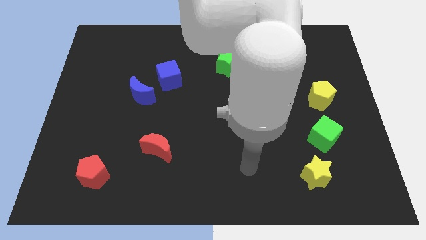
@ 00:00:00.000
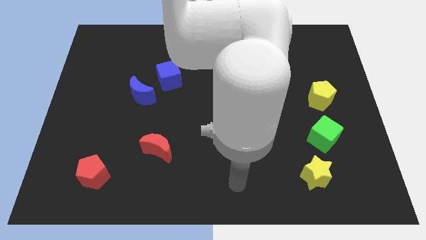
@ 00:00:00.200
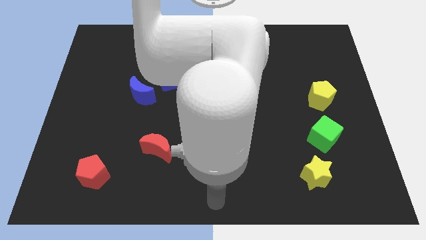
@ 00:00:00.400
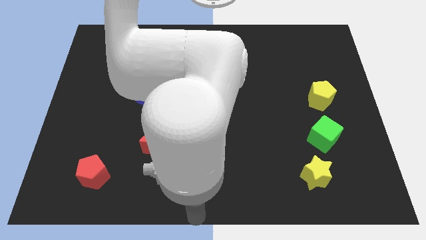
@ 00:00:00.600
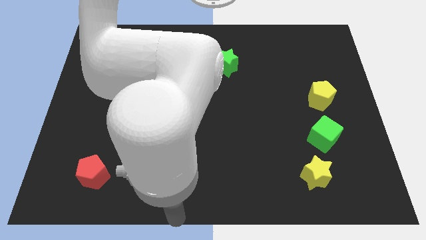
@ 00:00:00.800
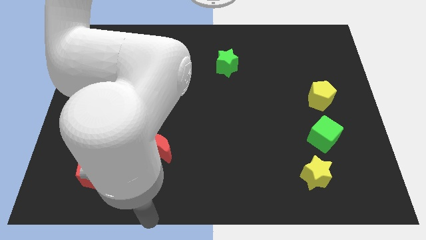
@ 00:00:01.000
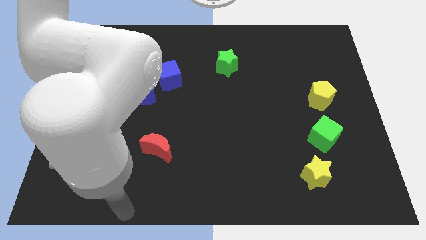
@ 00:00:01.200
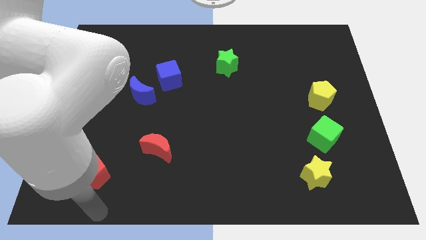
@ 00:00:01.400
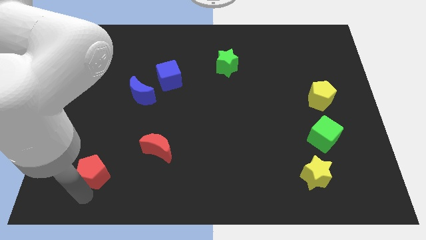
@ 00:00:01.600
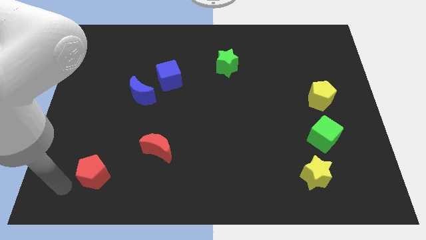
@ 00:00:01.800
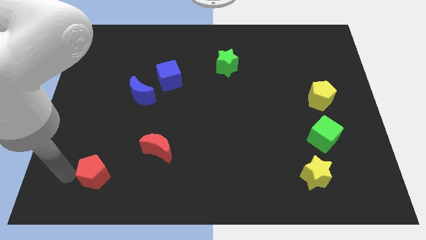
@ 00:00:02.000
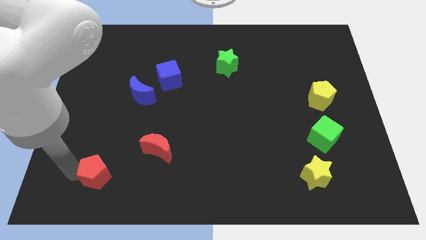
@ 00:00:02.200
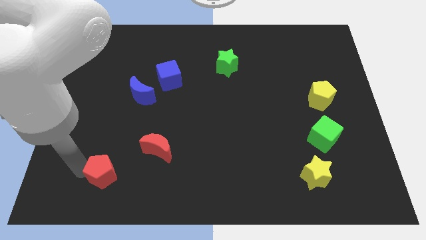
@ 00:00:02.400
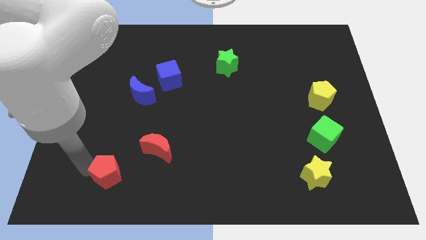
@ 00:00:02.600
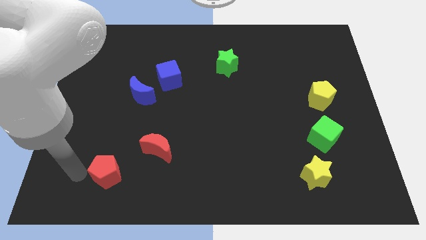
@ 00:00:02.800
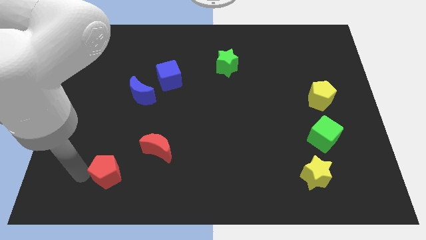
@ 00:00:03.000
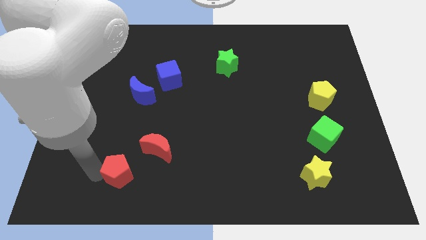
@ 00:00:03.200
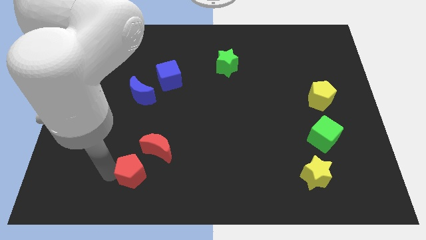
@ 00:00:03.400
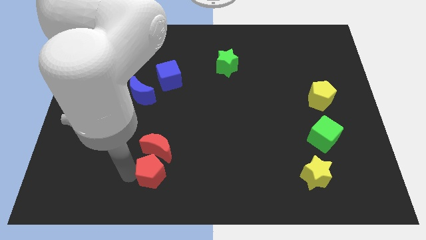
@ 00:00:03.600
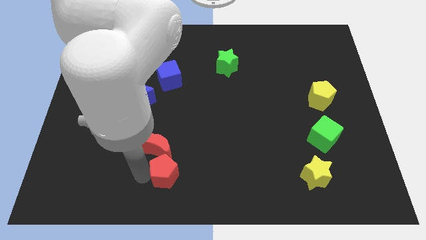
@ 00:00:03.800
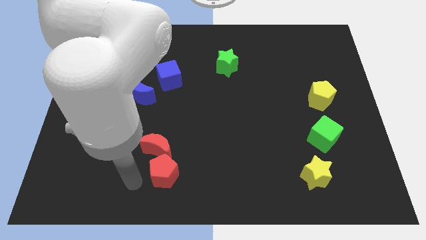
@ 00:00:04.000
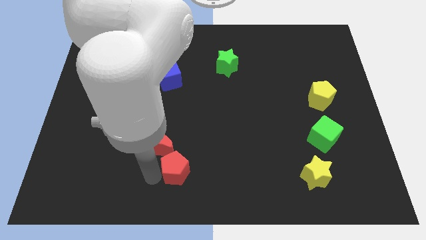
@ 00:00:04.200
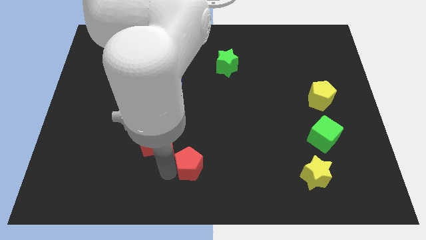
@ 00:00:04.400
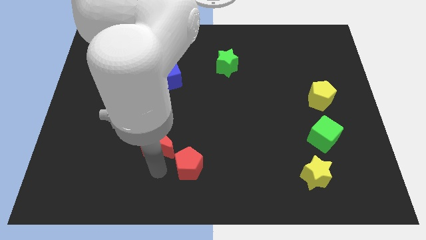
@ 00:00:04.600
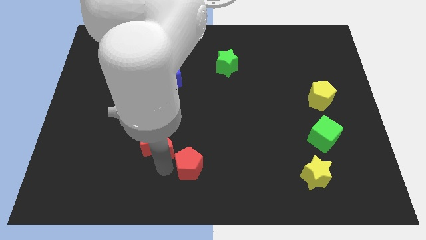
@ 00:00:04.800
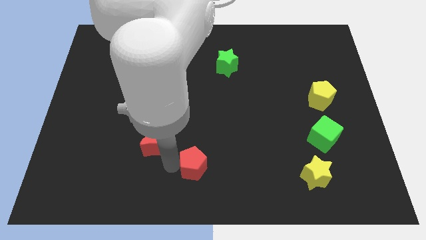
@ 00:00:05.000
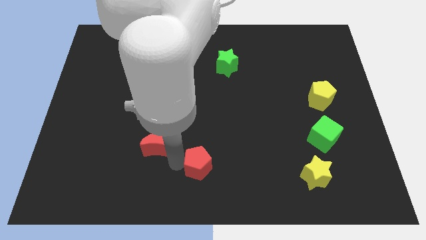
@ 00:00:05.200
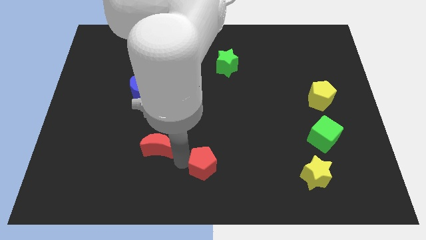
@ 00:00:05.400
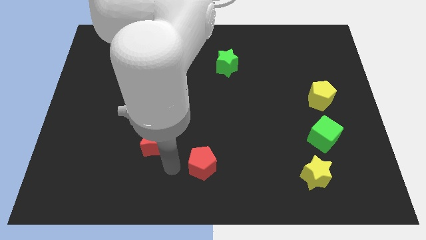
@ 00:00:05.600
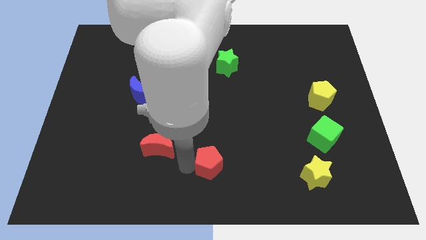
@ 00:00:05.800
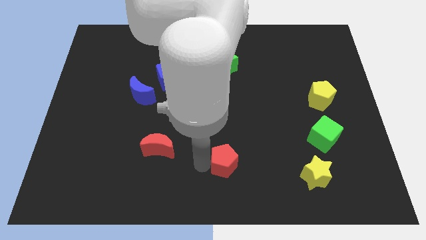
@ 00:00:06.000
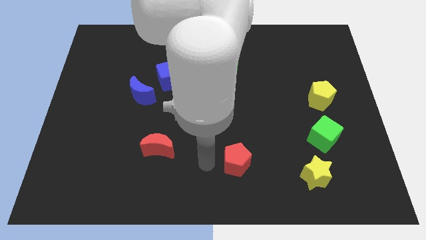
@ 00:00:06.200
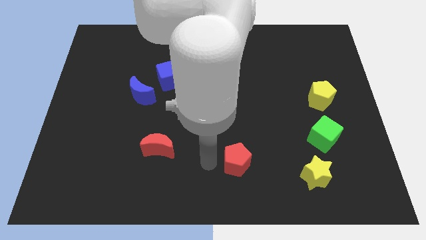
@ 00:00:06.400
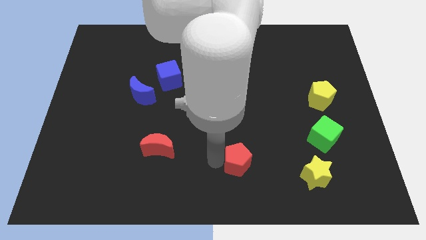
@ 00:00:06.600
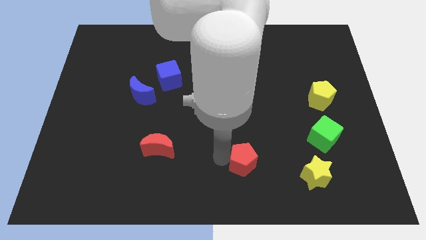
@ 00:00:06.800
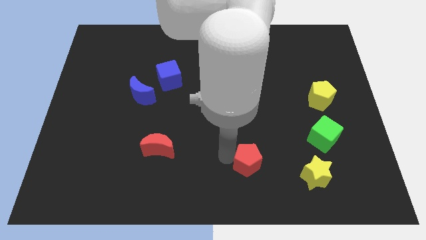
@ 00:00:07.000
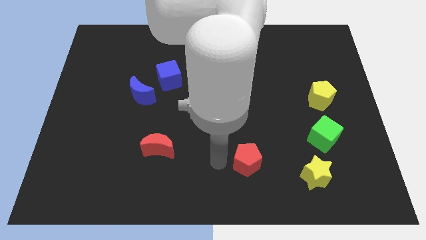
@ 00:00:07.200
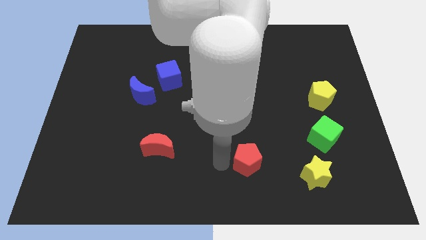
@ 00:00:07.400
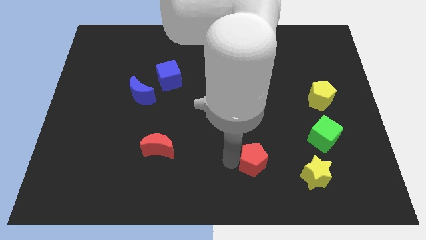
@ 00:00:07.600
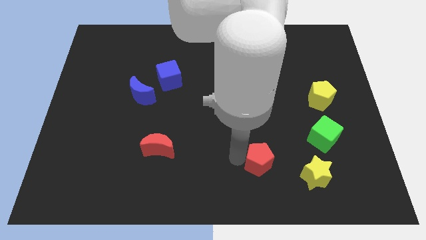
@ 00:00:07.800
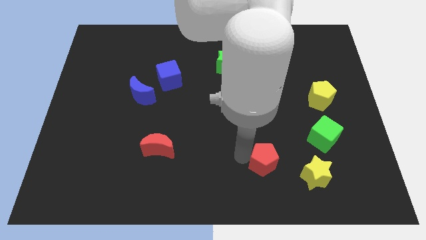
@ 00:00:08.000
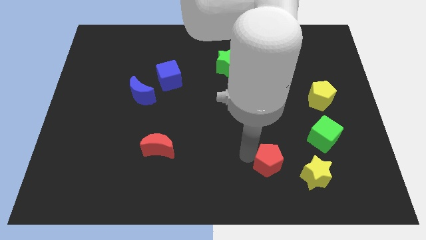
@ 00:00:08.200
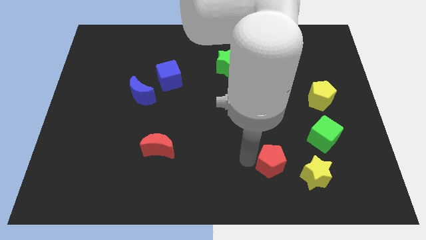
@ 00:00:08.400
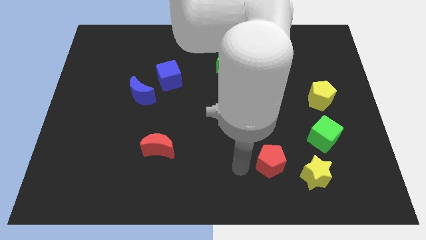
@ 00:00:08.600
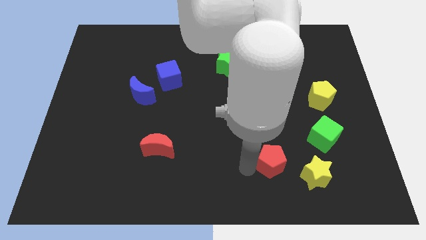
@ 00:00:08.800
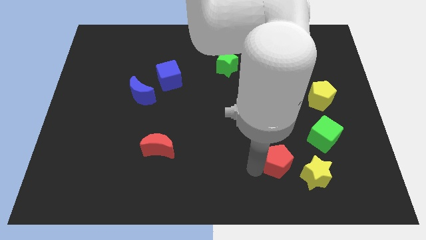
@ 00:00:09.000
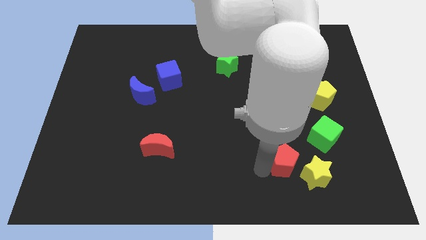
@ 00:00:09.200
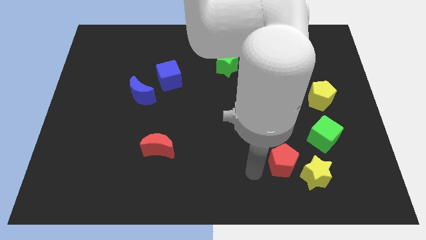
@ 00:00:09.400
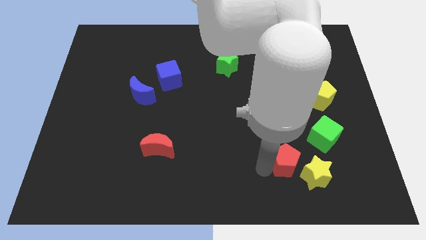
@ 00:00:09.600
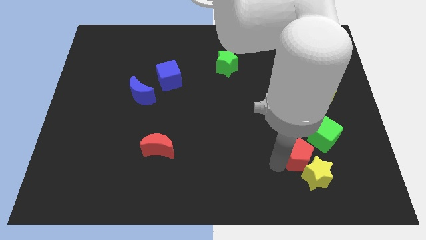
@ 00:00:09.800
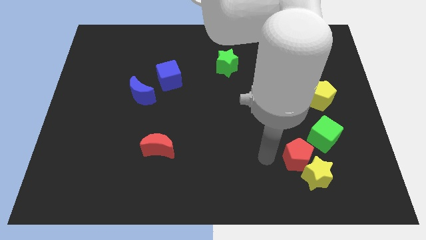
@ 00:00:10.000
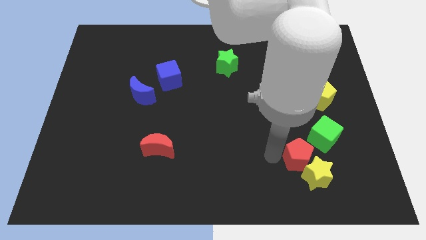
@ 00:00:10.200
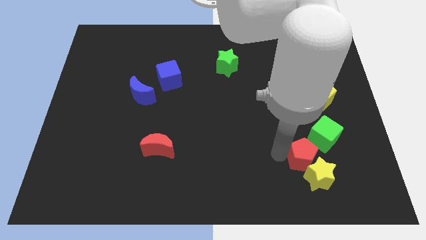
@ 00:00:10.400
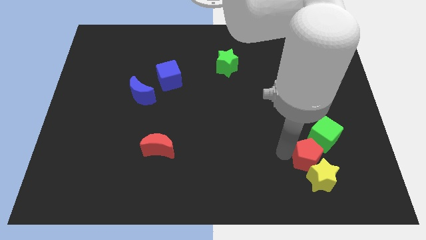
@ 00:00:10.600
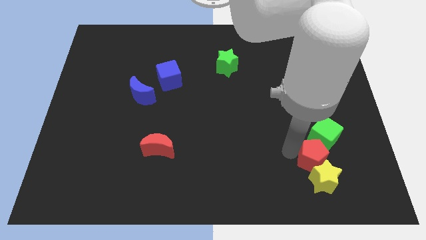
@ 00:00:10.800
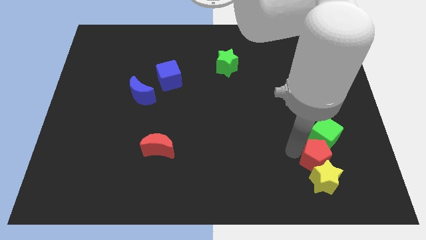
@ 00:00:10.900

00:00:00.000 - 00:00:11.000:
slide the red pentagon diagonally up and to the right of the yellow star

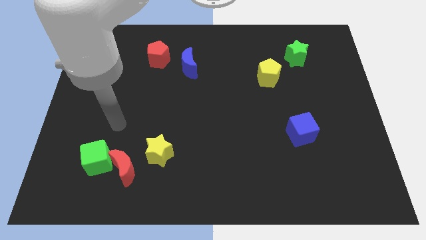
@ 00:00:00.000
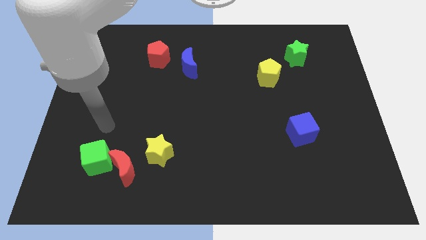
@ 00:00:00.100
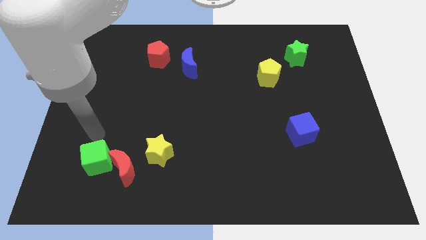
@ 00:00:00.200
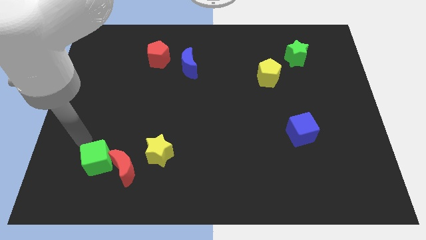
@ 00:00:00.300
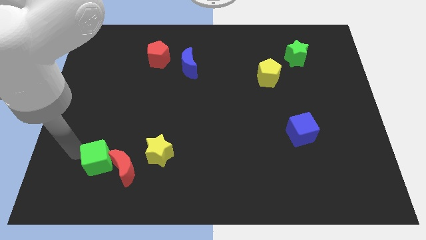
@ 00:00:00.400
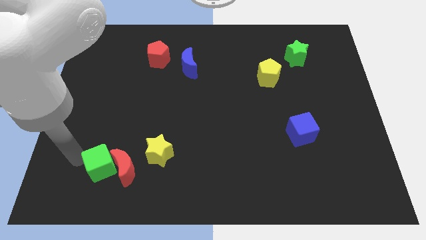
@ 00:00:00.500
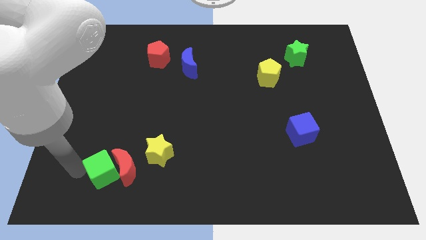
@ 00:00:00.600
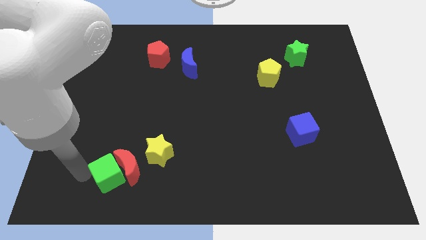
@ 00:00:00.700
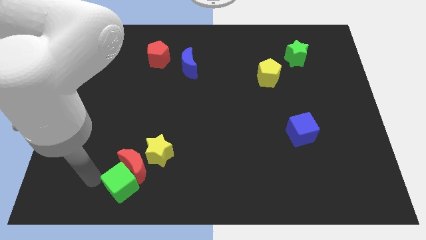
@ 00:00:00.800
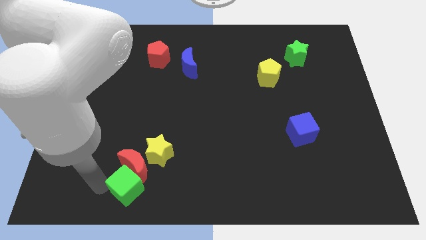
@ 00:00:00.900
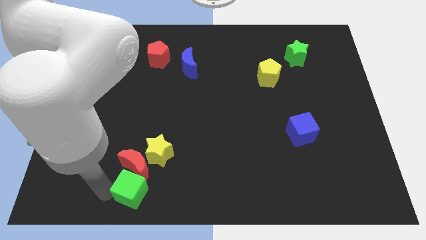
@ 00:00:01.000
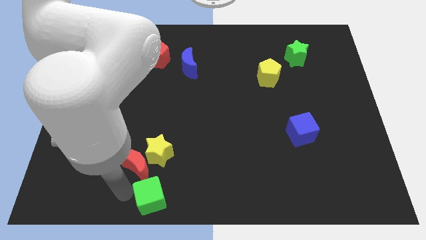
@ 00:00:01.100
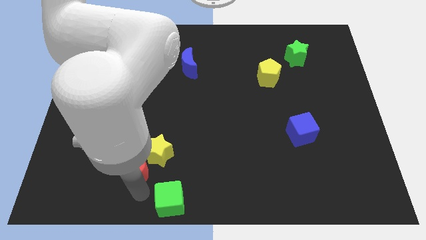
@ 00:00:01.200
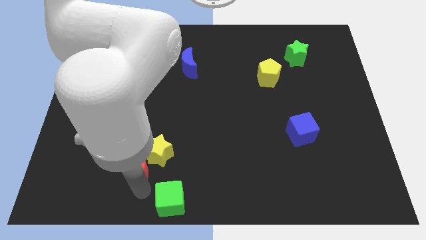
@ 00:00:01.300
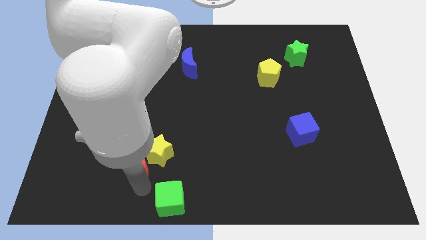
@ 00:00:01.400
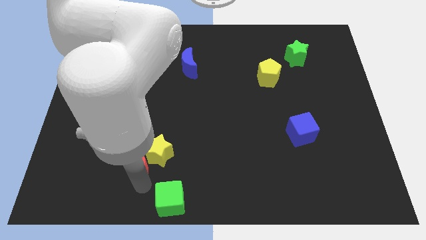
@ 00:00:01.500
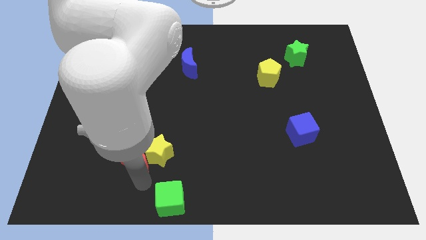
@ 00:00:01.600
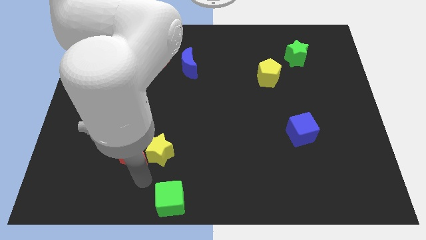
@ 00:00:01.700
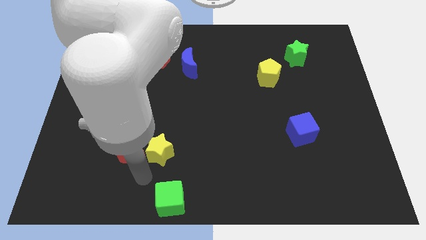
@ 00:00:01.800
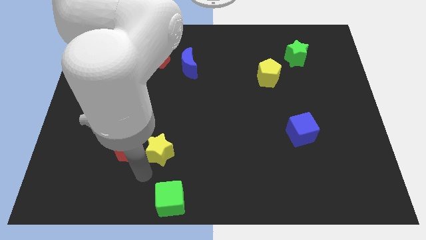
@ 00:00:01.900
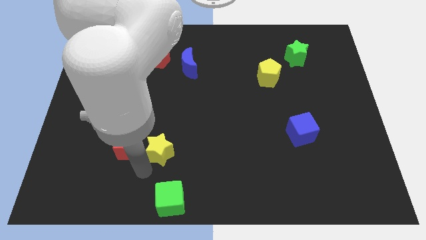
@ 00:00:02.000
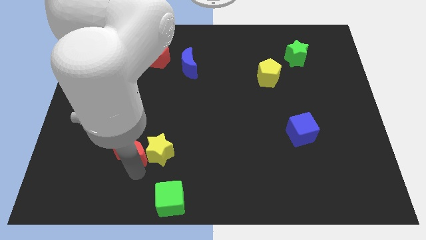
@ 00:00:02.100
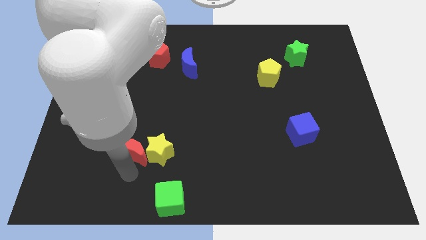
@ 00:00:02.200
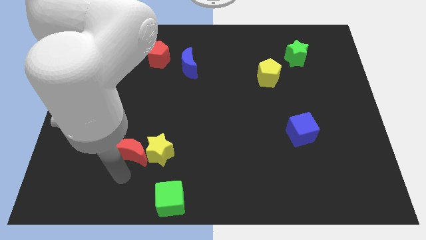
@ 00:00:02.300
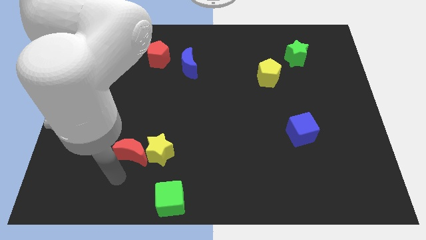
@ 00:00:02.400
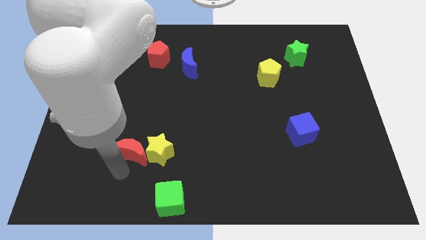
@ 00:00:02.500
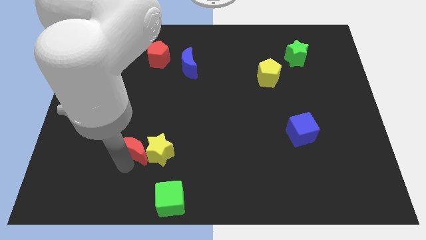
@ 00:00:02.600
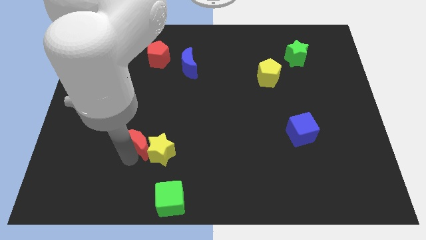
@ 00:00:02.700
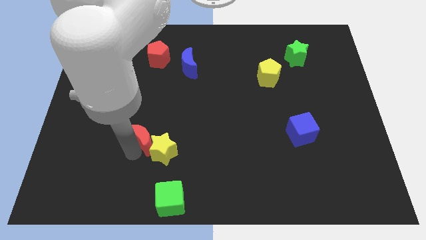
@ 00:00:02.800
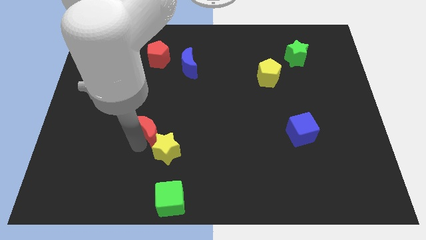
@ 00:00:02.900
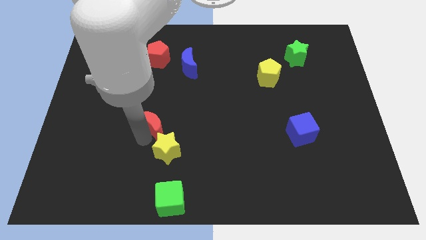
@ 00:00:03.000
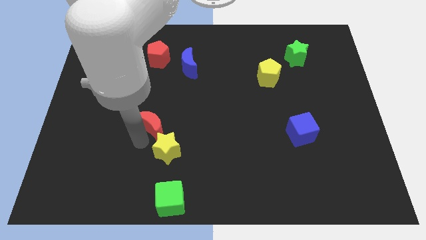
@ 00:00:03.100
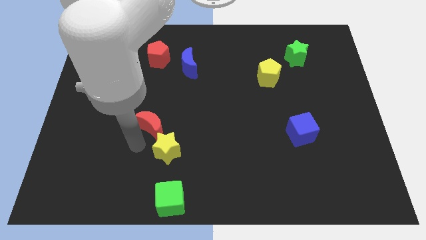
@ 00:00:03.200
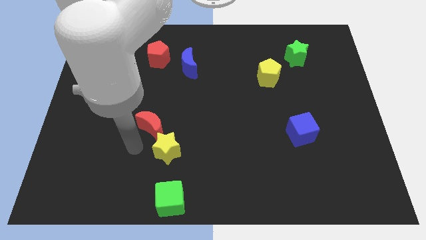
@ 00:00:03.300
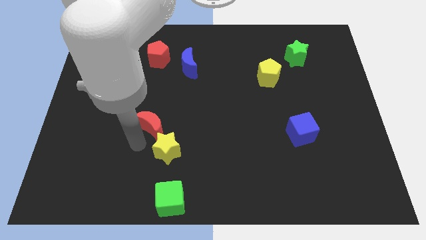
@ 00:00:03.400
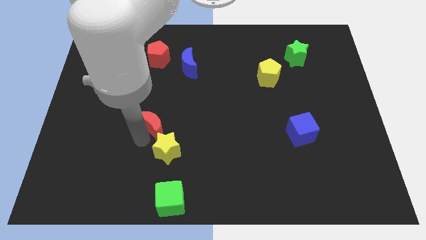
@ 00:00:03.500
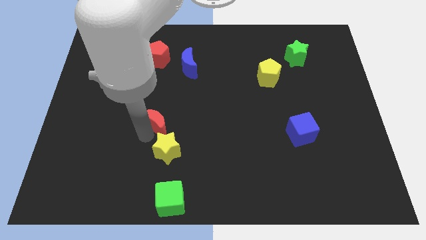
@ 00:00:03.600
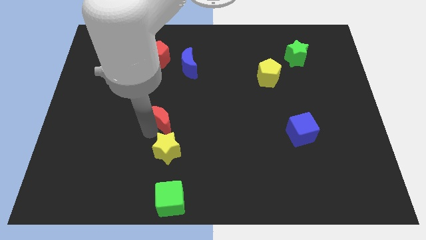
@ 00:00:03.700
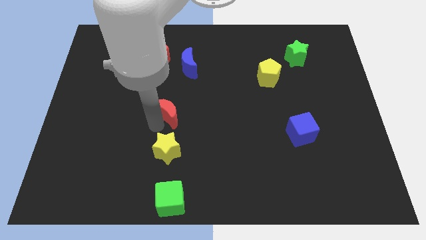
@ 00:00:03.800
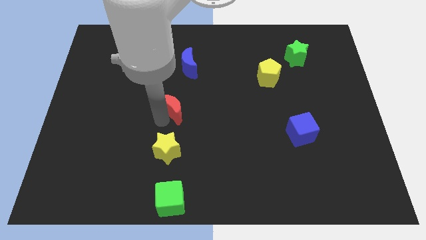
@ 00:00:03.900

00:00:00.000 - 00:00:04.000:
slide the red moon below the blue moon
